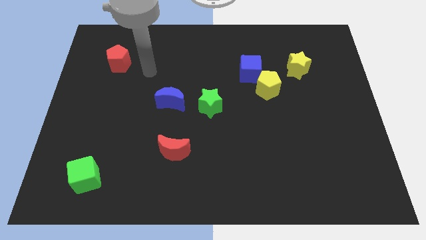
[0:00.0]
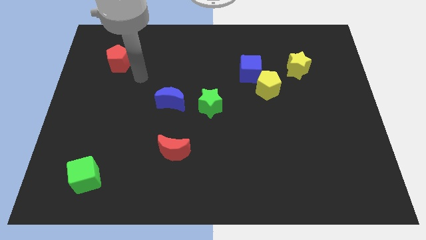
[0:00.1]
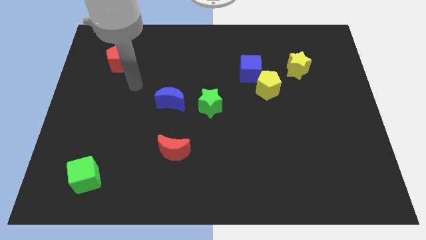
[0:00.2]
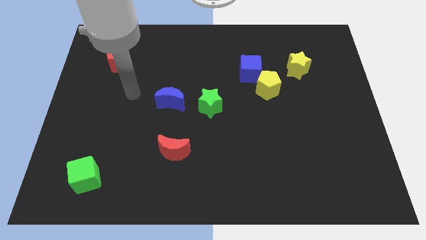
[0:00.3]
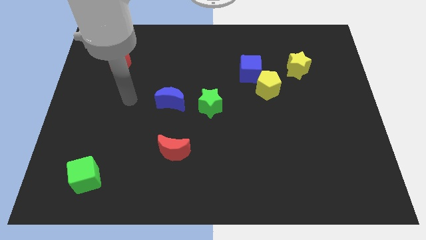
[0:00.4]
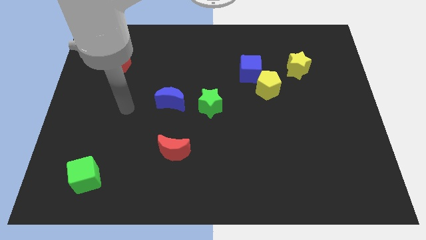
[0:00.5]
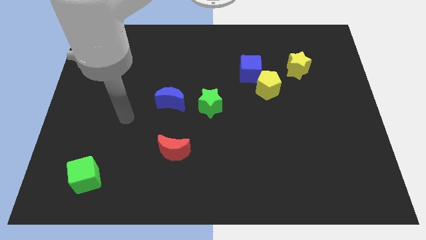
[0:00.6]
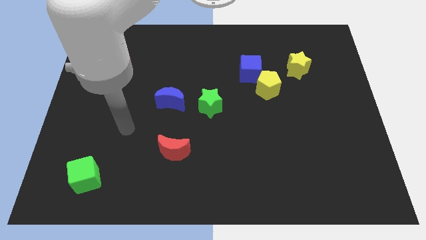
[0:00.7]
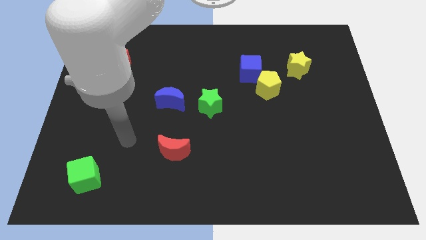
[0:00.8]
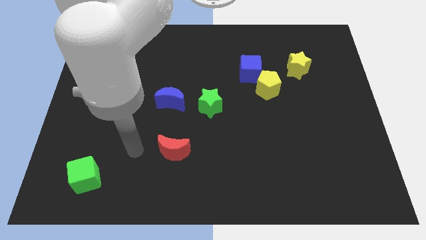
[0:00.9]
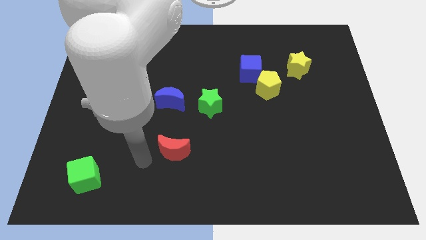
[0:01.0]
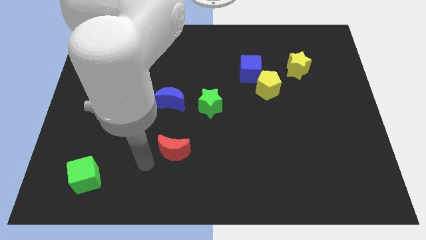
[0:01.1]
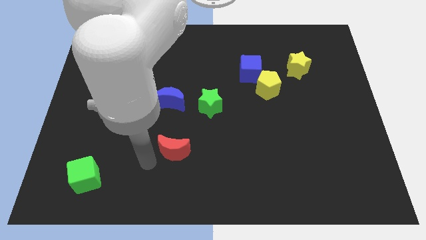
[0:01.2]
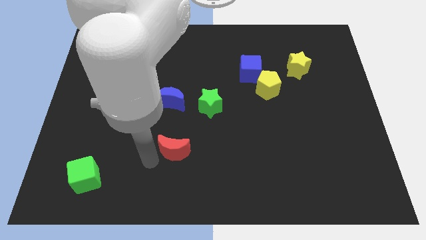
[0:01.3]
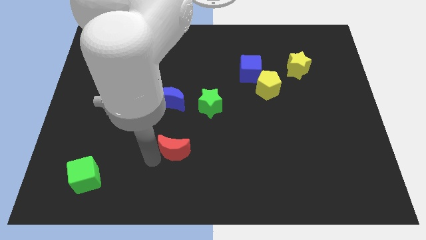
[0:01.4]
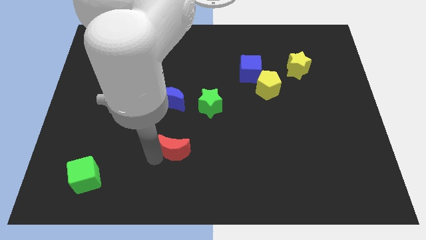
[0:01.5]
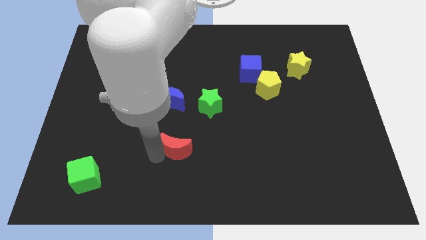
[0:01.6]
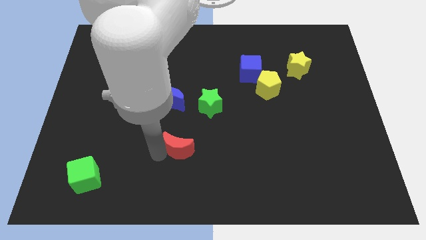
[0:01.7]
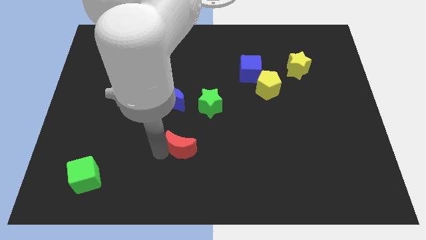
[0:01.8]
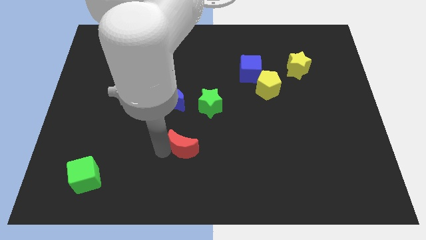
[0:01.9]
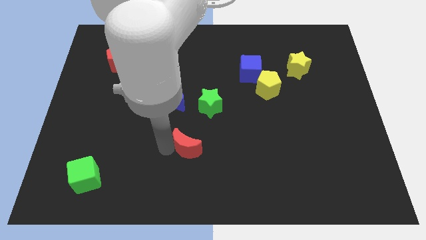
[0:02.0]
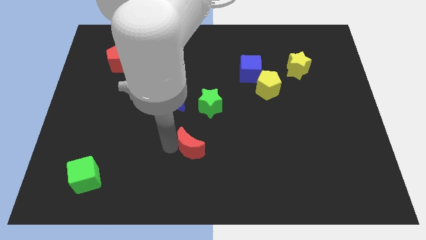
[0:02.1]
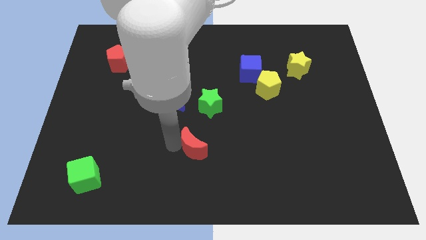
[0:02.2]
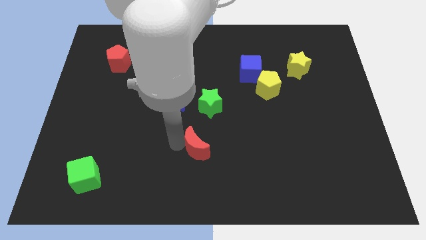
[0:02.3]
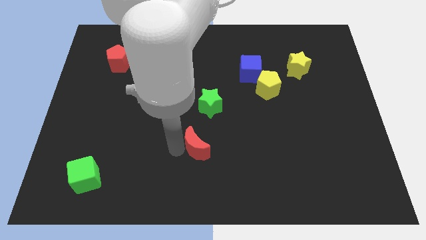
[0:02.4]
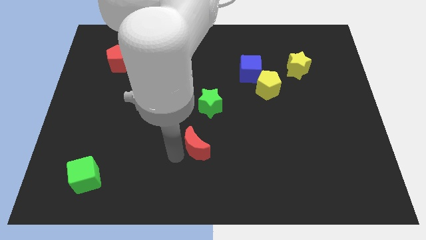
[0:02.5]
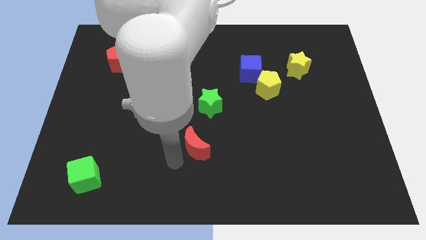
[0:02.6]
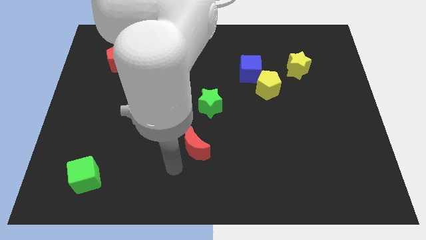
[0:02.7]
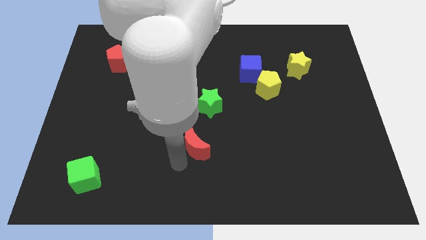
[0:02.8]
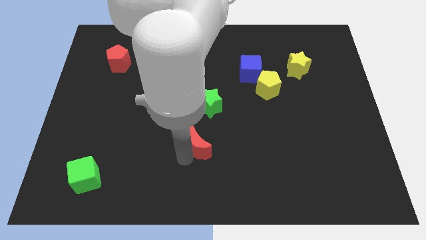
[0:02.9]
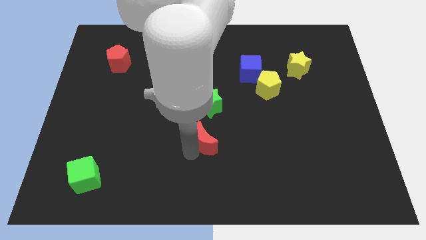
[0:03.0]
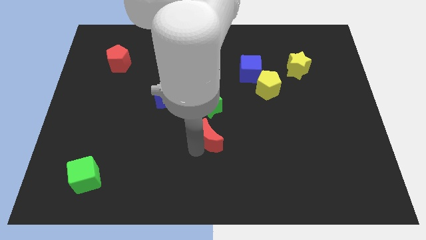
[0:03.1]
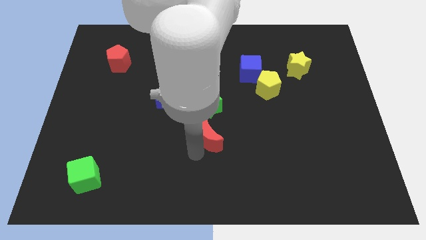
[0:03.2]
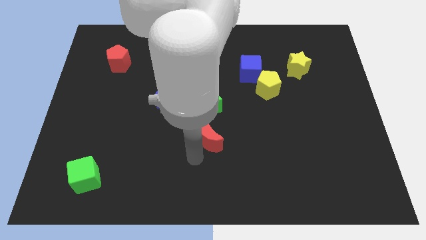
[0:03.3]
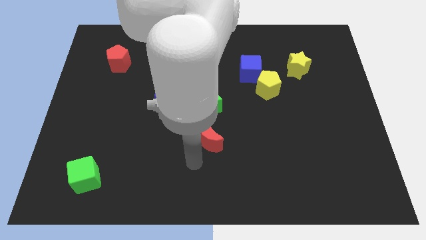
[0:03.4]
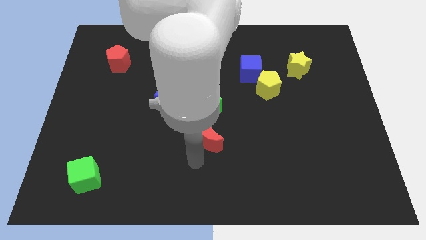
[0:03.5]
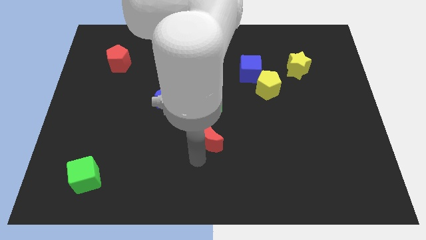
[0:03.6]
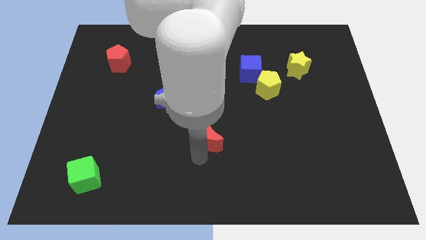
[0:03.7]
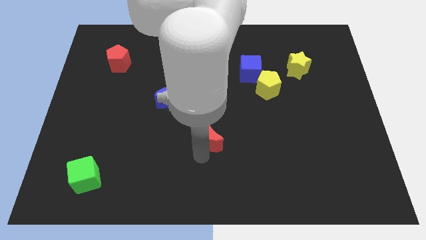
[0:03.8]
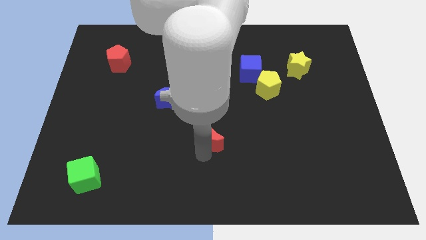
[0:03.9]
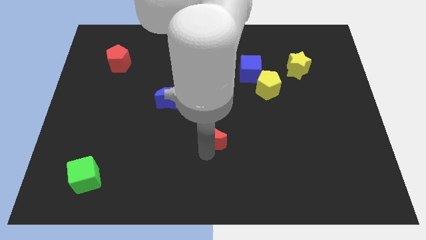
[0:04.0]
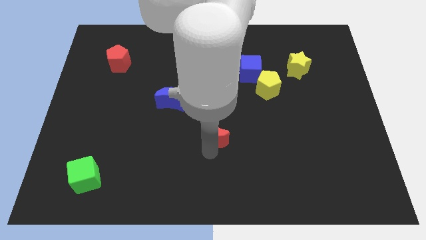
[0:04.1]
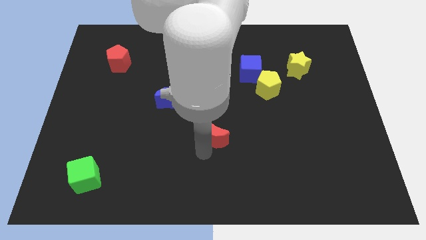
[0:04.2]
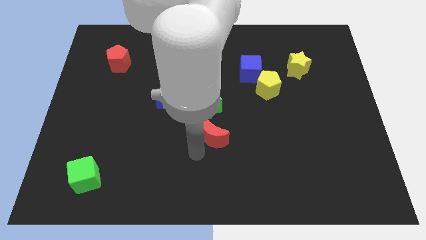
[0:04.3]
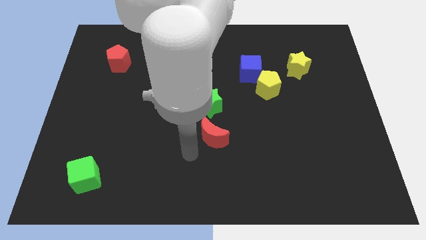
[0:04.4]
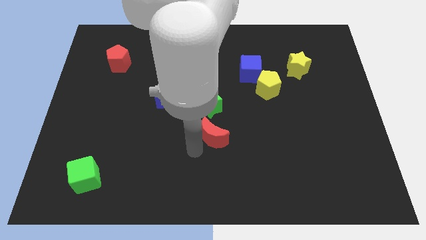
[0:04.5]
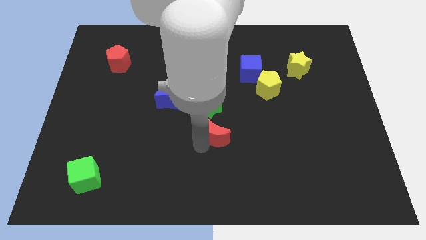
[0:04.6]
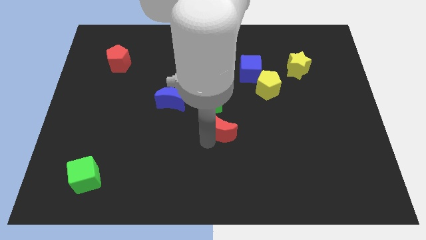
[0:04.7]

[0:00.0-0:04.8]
slide the red moon to the bottom right of the green star

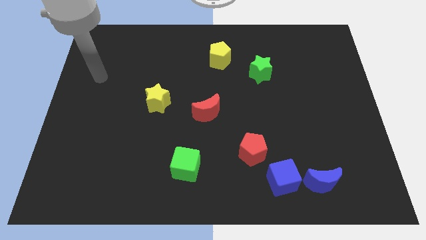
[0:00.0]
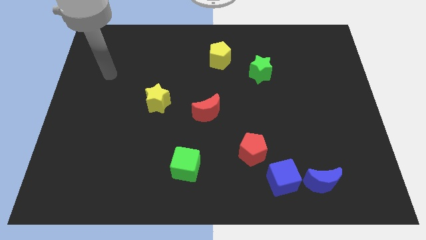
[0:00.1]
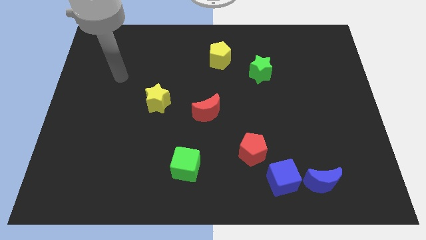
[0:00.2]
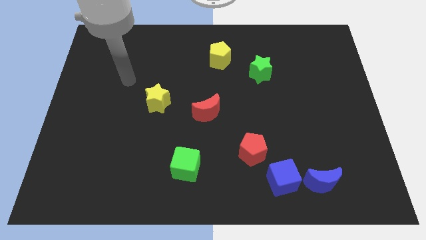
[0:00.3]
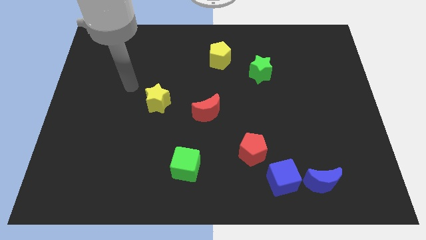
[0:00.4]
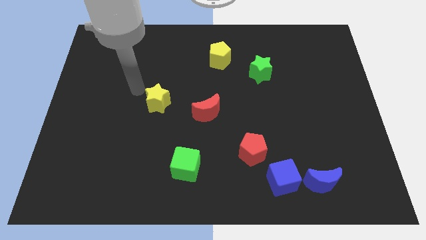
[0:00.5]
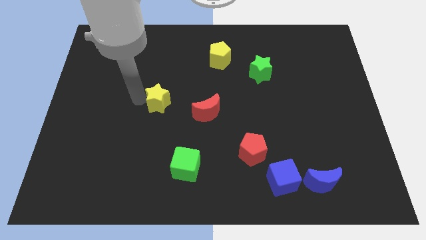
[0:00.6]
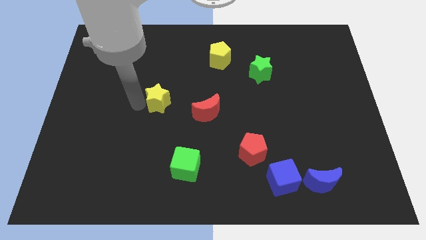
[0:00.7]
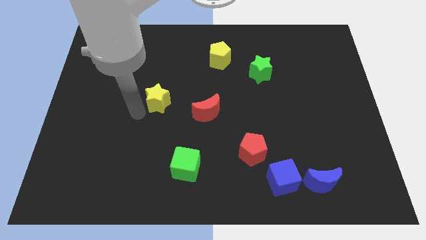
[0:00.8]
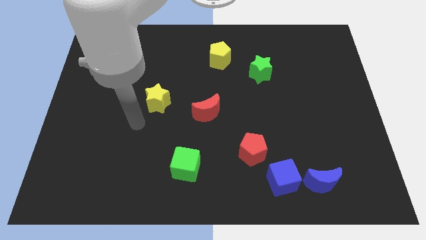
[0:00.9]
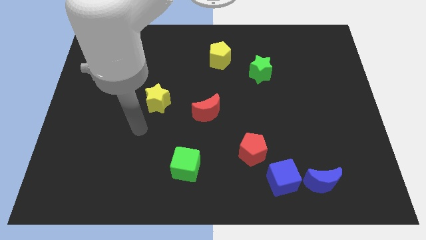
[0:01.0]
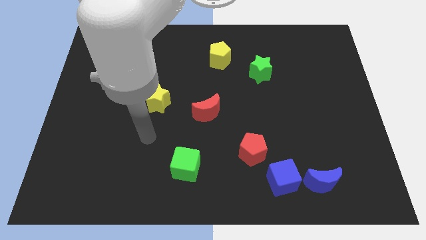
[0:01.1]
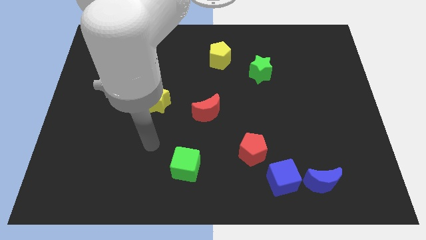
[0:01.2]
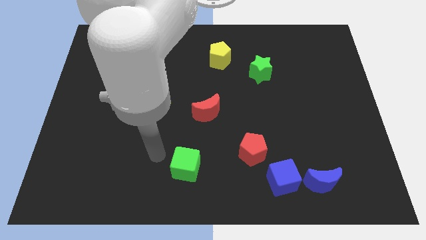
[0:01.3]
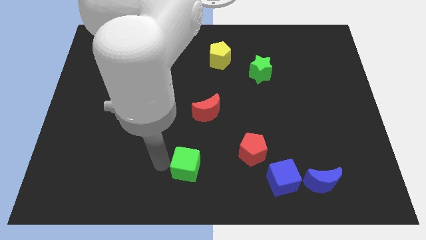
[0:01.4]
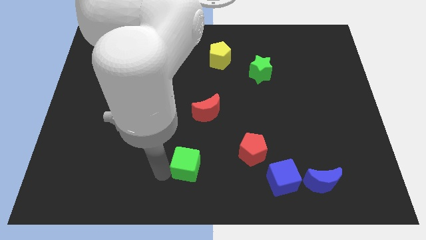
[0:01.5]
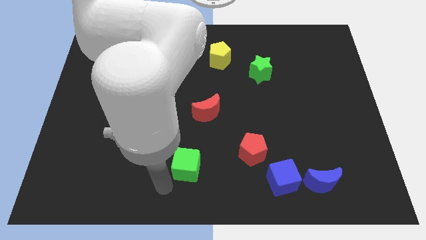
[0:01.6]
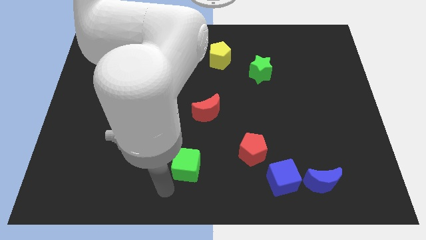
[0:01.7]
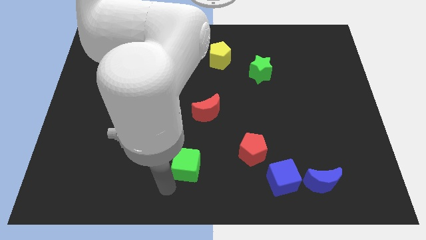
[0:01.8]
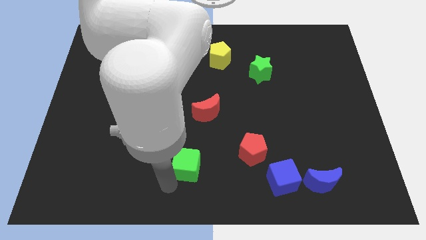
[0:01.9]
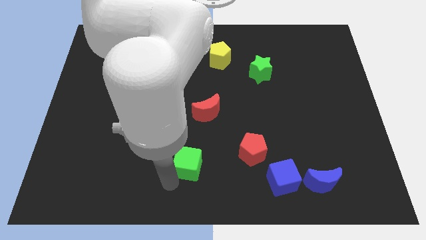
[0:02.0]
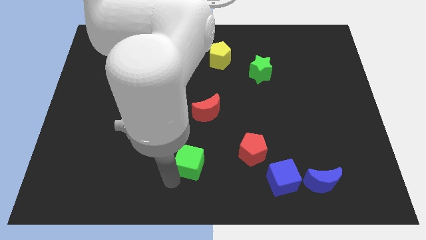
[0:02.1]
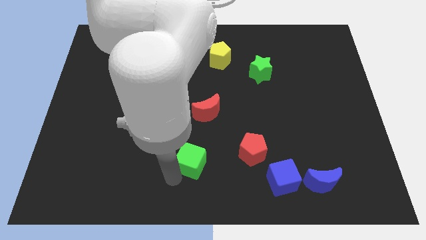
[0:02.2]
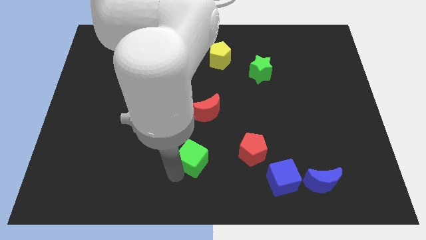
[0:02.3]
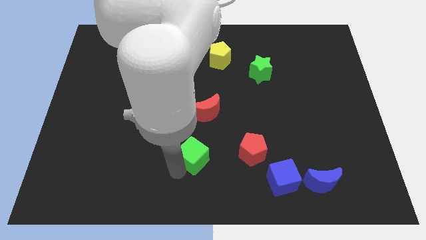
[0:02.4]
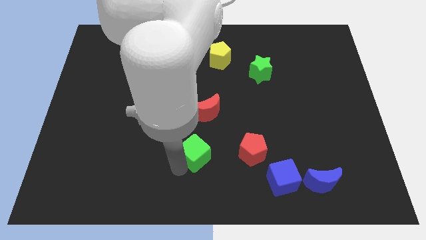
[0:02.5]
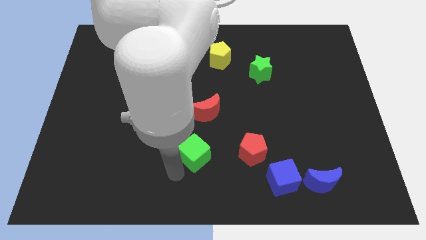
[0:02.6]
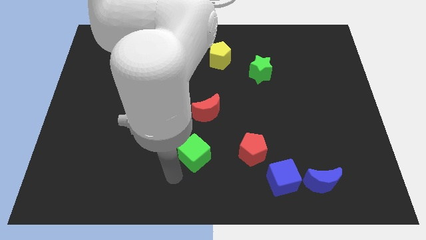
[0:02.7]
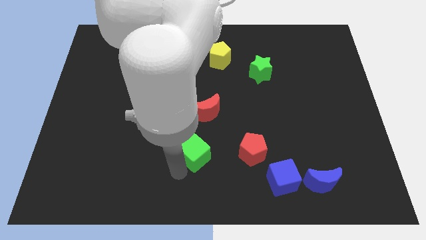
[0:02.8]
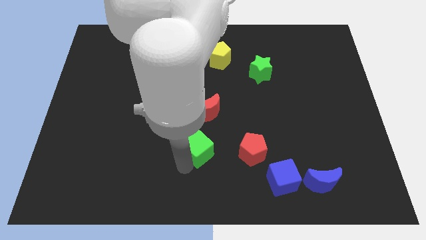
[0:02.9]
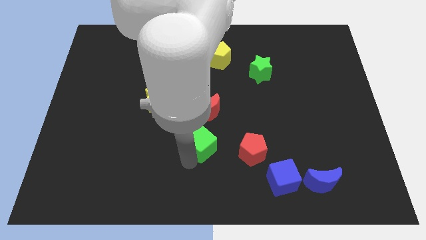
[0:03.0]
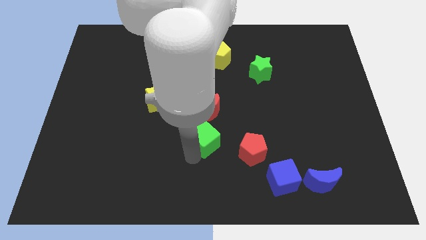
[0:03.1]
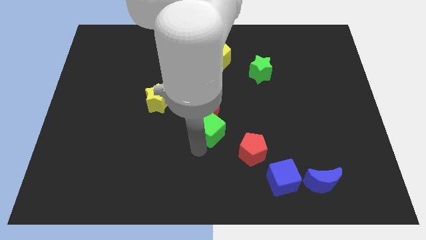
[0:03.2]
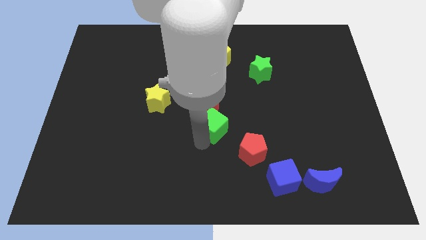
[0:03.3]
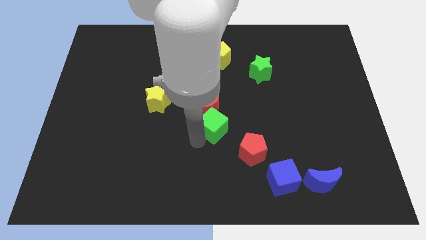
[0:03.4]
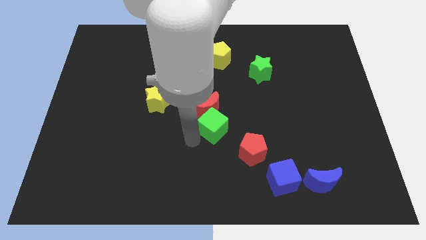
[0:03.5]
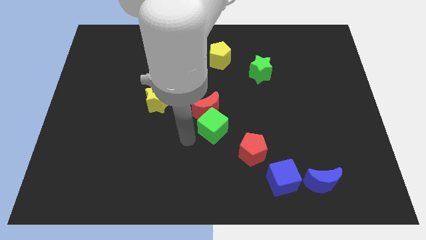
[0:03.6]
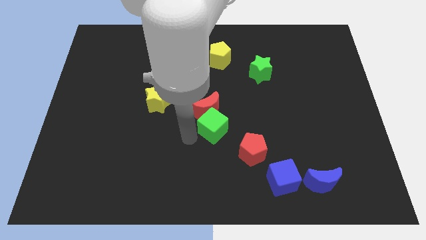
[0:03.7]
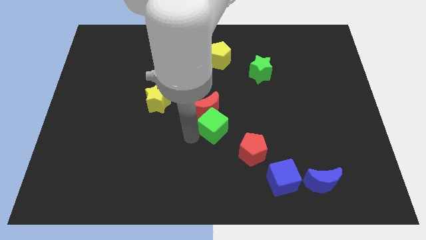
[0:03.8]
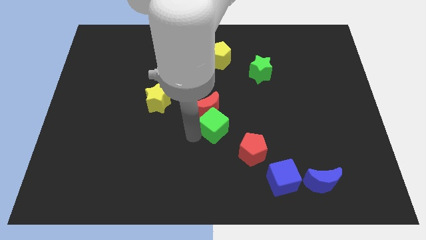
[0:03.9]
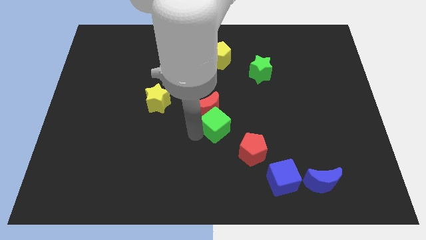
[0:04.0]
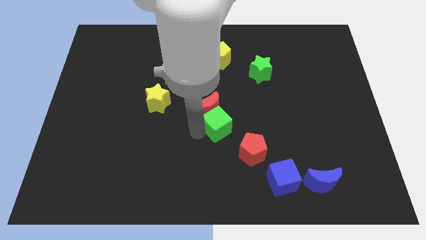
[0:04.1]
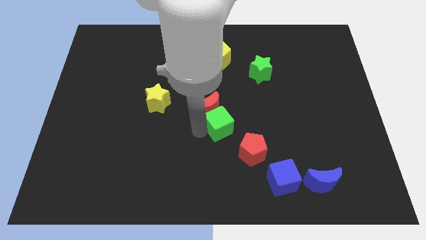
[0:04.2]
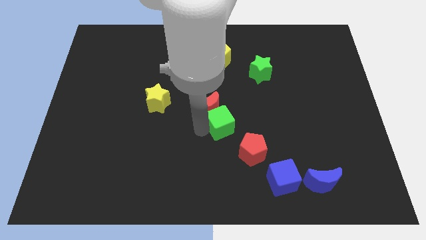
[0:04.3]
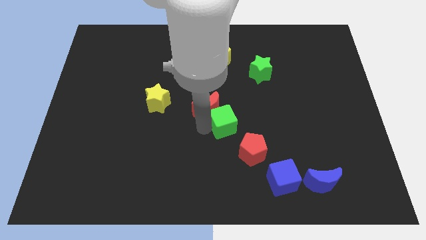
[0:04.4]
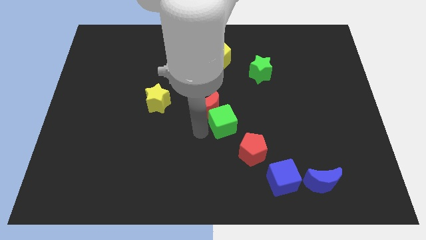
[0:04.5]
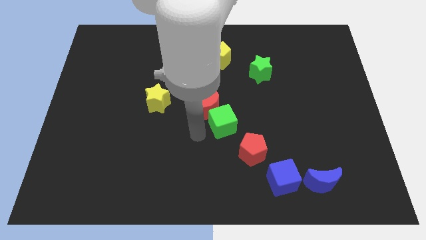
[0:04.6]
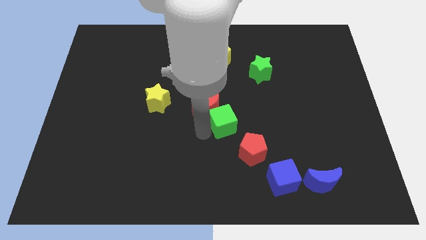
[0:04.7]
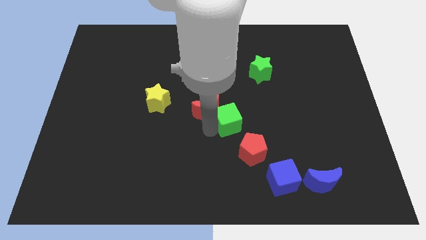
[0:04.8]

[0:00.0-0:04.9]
put the green cube to the top of the red pentagon
